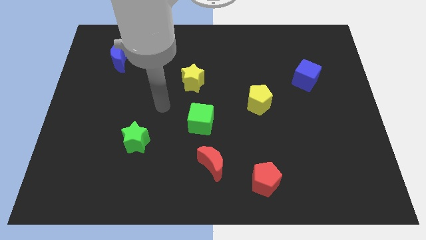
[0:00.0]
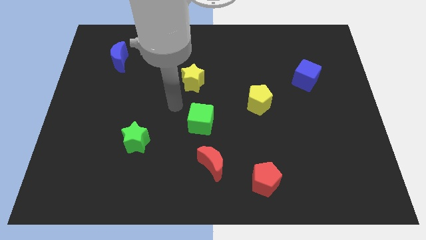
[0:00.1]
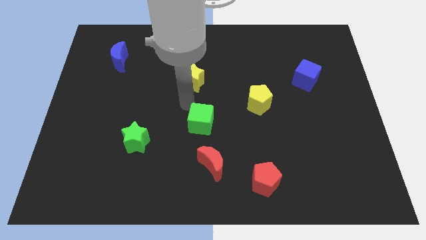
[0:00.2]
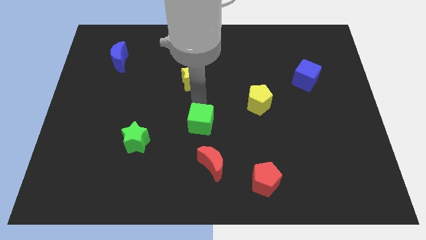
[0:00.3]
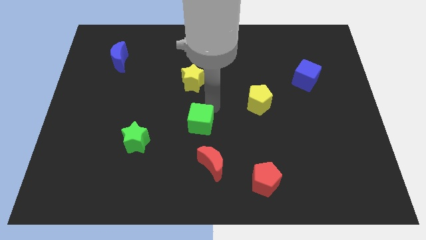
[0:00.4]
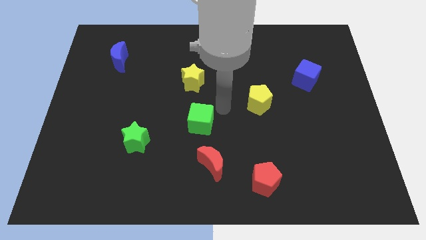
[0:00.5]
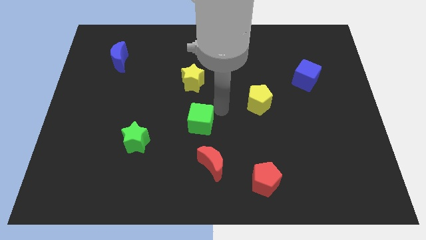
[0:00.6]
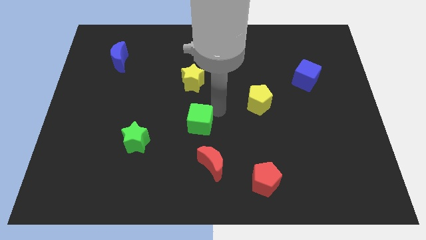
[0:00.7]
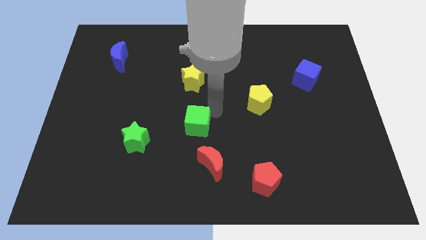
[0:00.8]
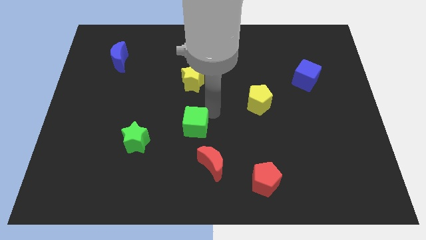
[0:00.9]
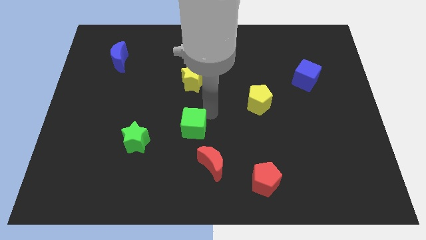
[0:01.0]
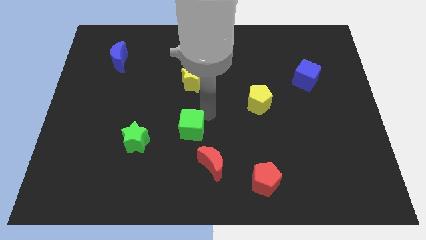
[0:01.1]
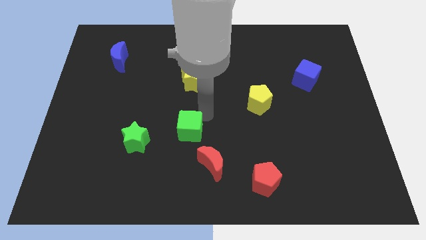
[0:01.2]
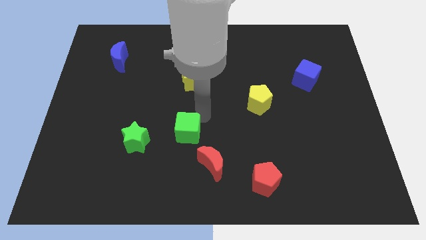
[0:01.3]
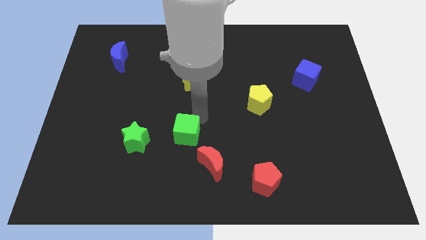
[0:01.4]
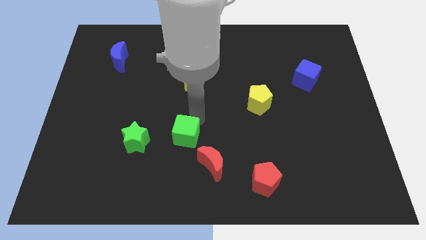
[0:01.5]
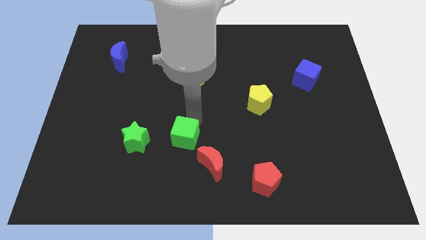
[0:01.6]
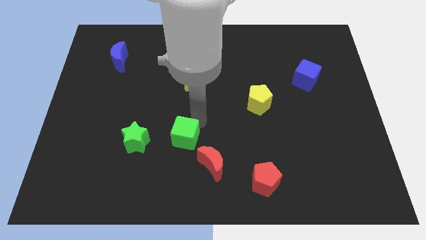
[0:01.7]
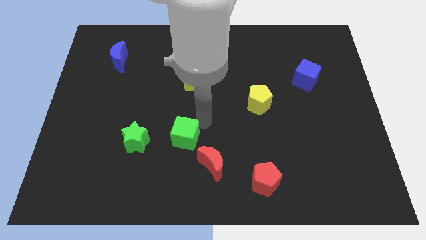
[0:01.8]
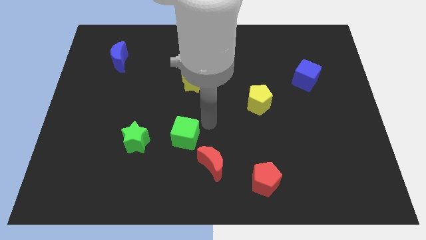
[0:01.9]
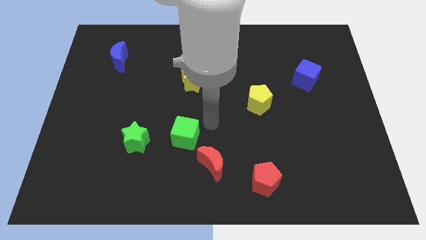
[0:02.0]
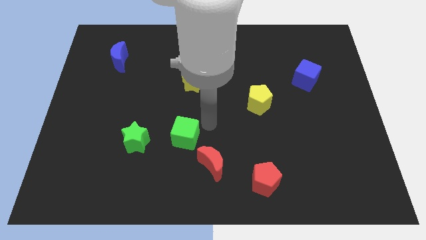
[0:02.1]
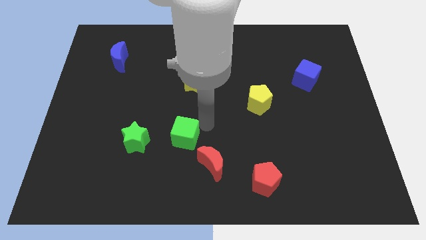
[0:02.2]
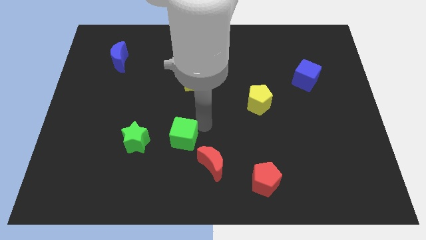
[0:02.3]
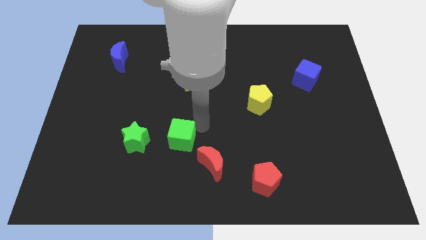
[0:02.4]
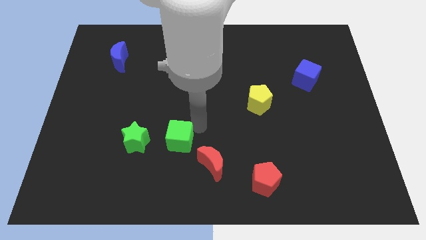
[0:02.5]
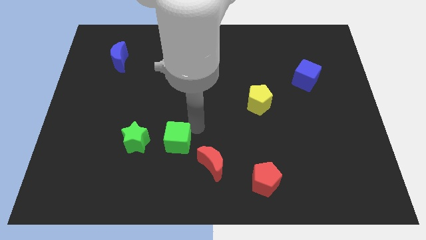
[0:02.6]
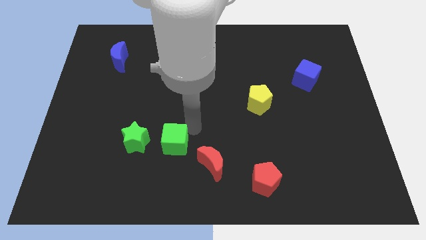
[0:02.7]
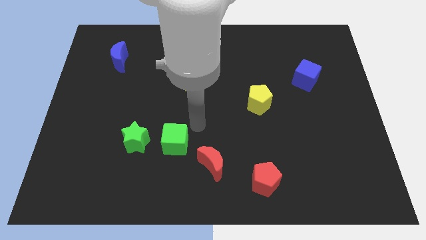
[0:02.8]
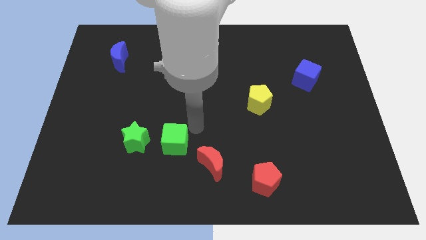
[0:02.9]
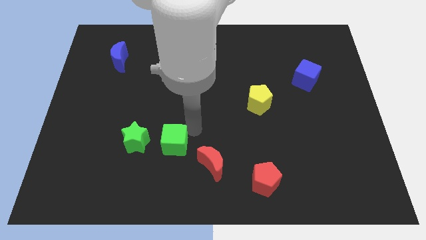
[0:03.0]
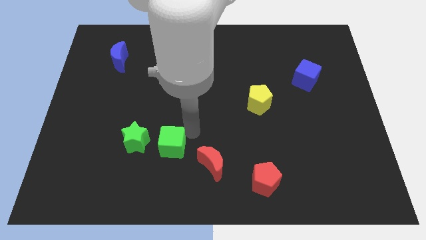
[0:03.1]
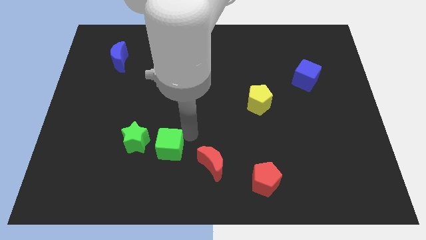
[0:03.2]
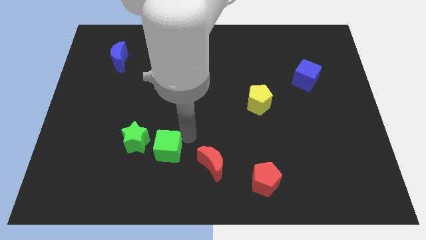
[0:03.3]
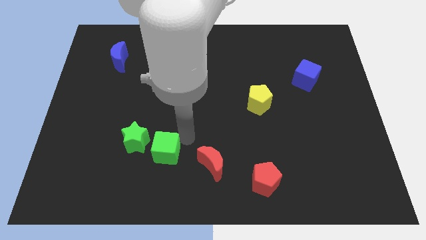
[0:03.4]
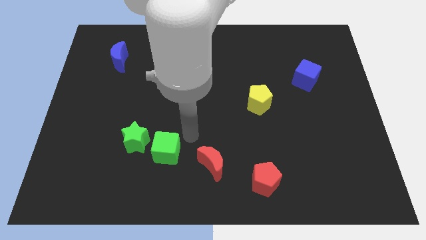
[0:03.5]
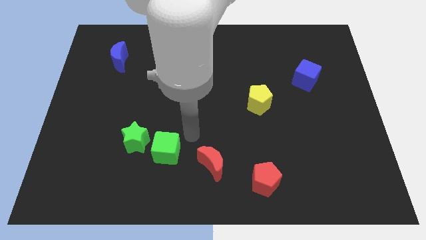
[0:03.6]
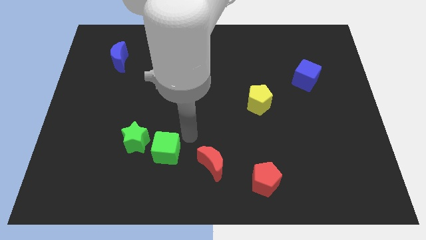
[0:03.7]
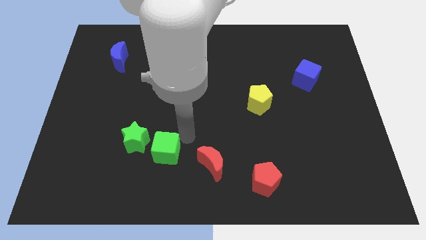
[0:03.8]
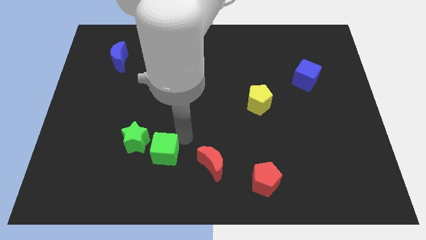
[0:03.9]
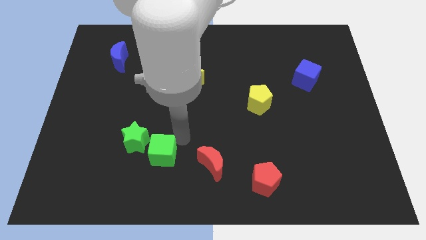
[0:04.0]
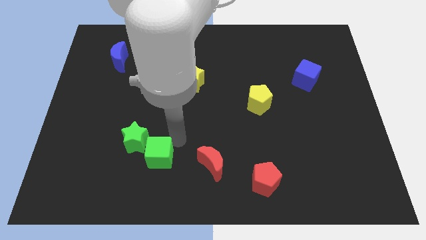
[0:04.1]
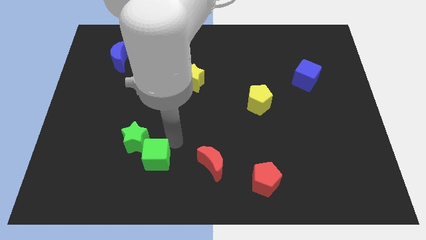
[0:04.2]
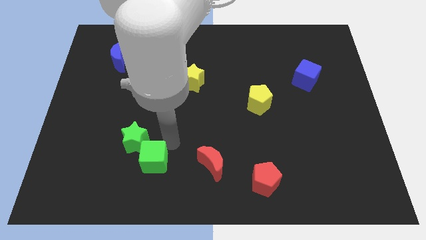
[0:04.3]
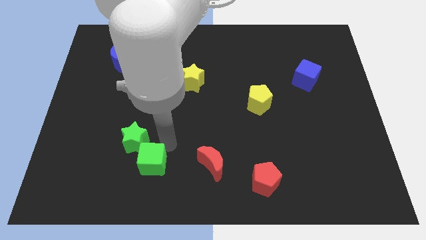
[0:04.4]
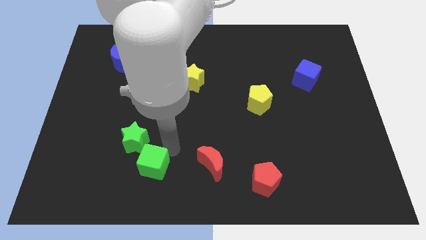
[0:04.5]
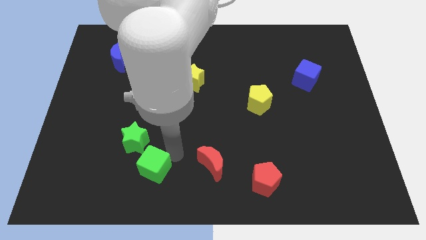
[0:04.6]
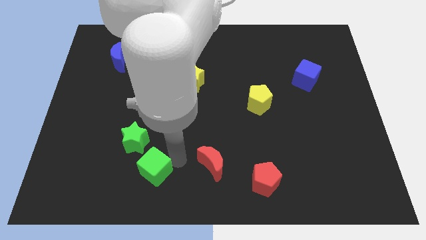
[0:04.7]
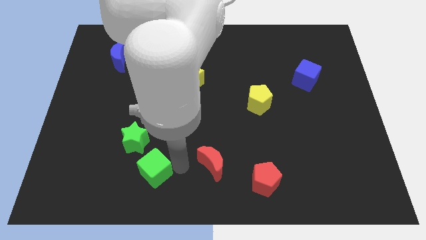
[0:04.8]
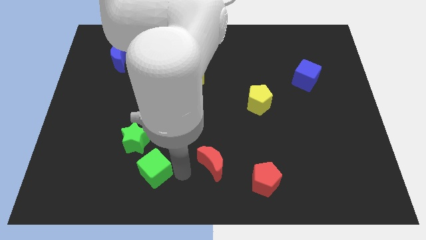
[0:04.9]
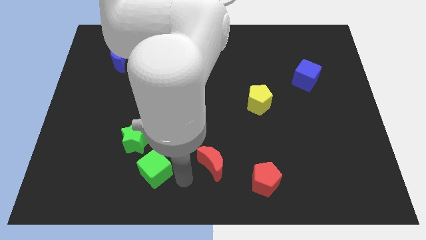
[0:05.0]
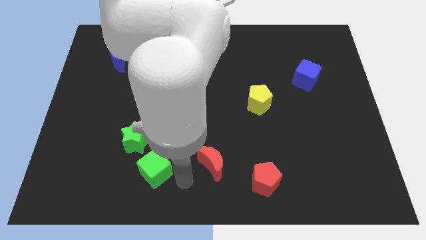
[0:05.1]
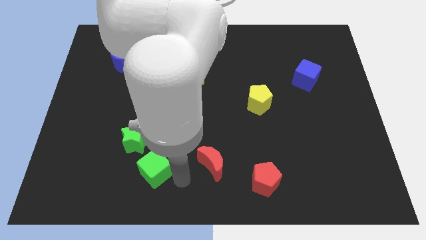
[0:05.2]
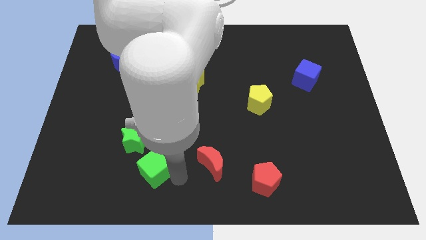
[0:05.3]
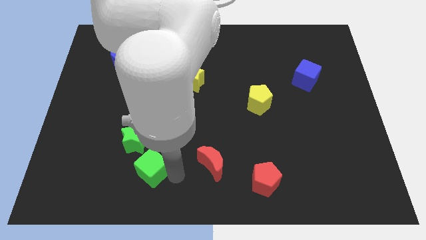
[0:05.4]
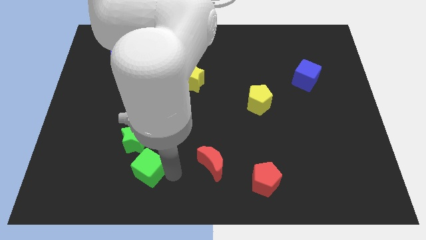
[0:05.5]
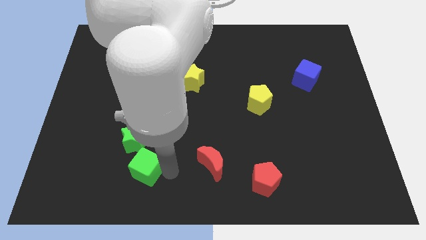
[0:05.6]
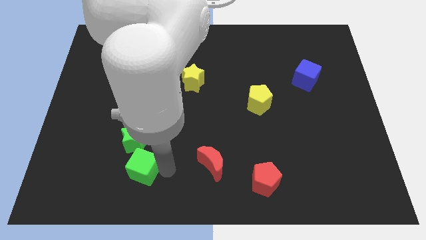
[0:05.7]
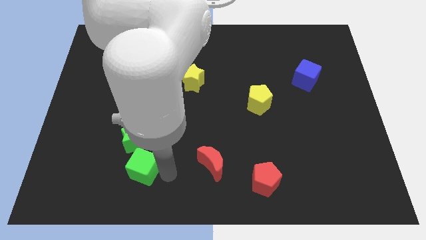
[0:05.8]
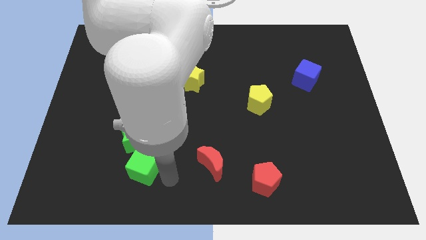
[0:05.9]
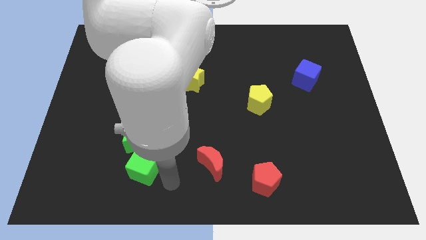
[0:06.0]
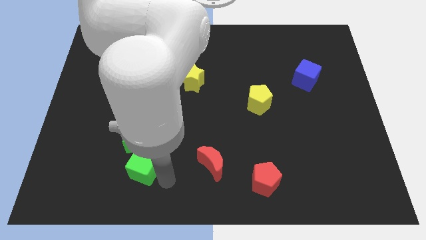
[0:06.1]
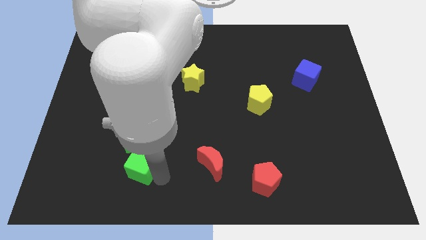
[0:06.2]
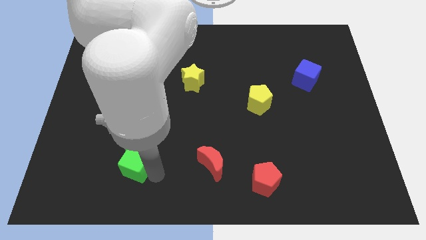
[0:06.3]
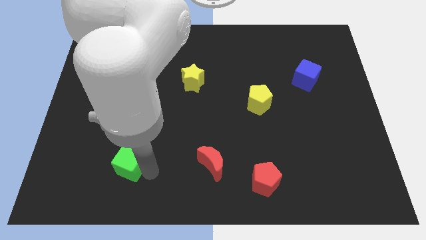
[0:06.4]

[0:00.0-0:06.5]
slide the green cube to the bottom left side of the green star

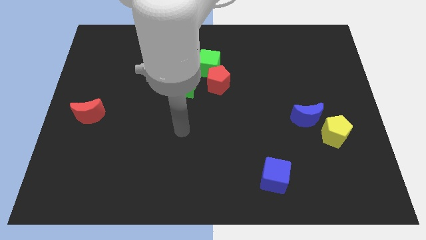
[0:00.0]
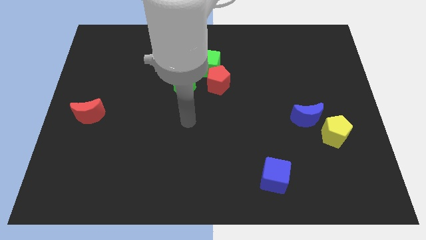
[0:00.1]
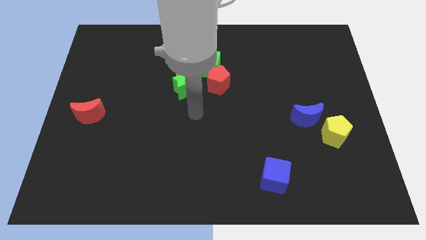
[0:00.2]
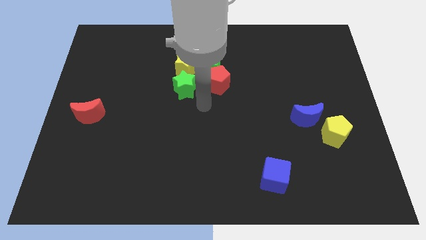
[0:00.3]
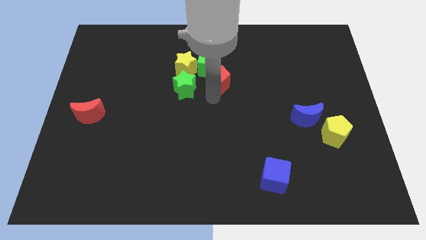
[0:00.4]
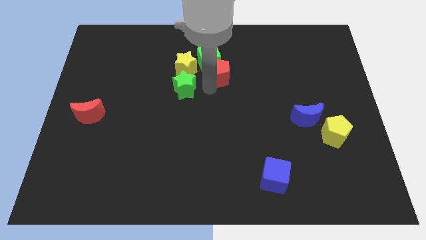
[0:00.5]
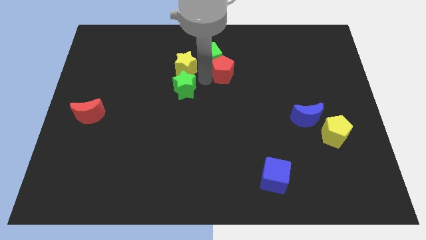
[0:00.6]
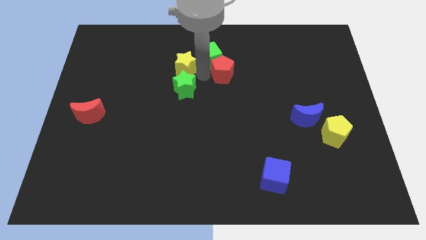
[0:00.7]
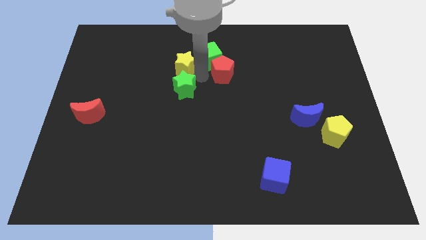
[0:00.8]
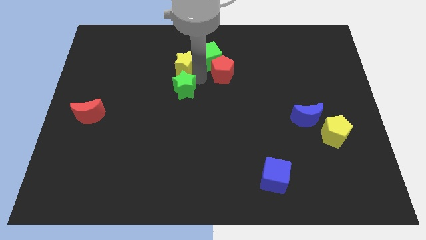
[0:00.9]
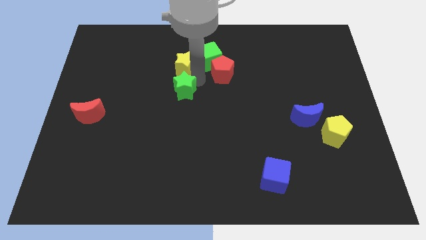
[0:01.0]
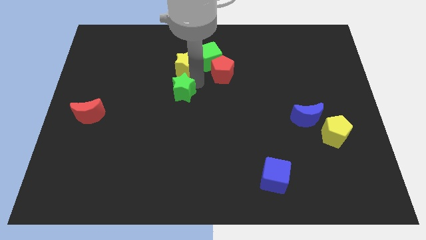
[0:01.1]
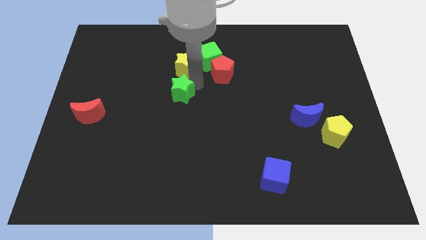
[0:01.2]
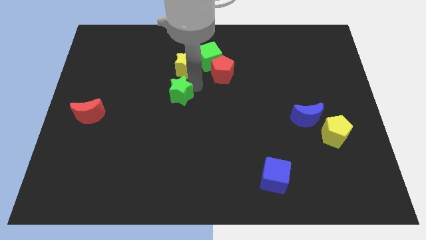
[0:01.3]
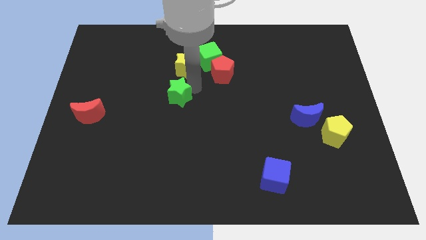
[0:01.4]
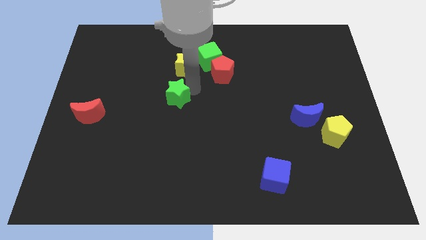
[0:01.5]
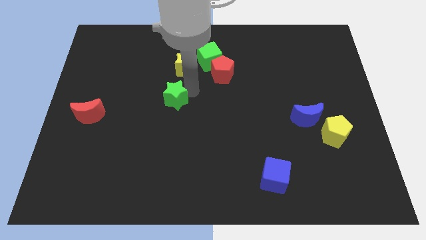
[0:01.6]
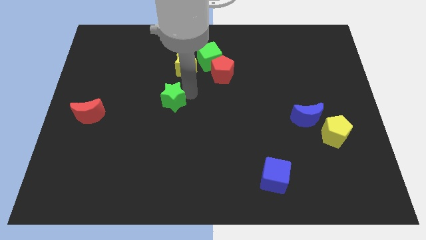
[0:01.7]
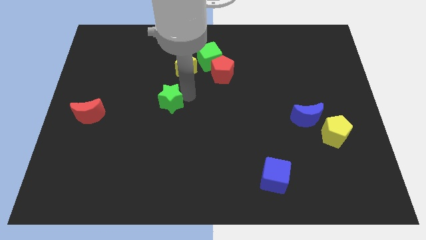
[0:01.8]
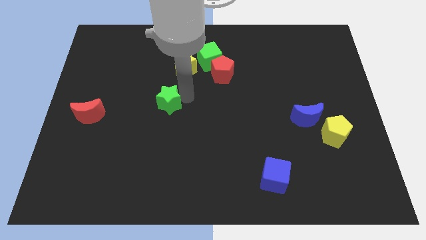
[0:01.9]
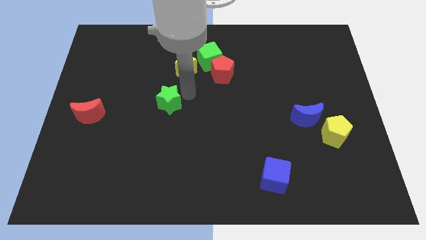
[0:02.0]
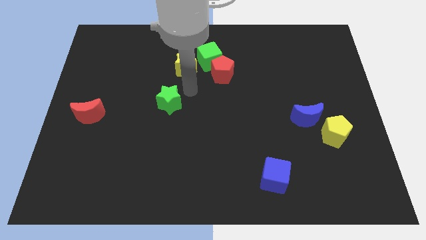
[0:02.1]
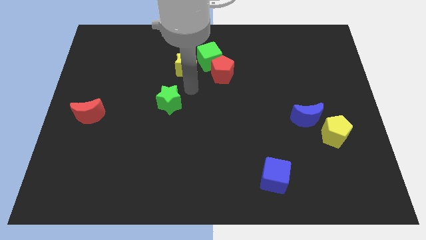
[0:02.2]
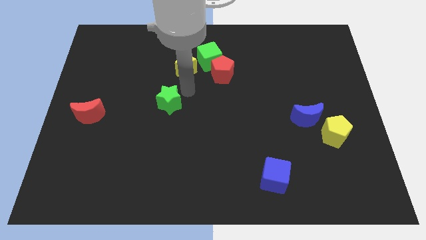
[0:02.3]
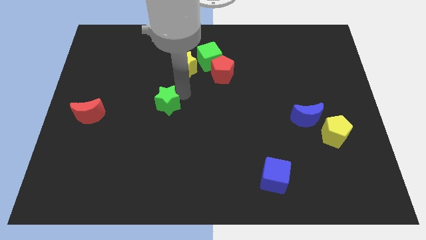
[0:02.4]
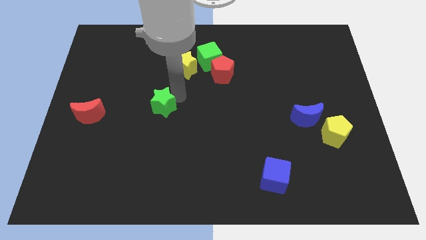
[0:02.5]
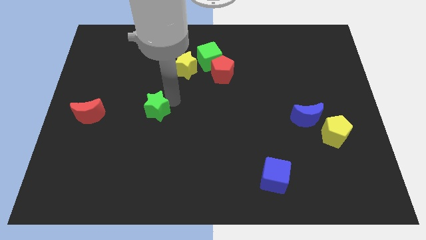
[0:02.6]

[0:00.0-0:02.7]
push the green star to the right of the red moon
